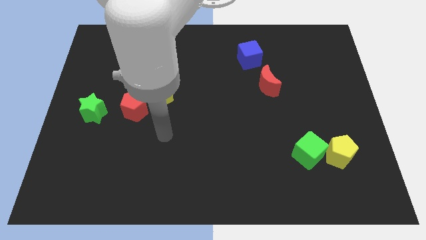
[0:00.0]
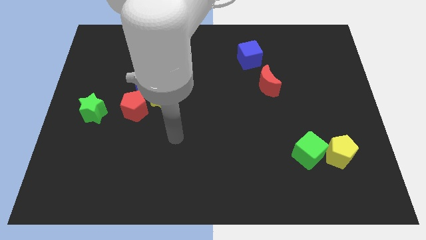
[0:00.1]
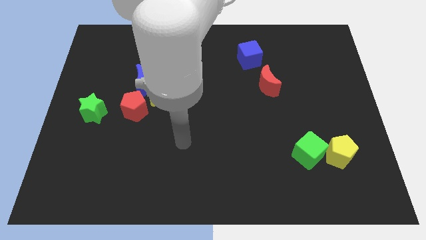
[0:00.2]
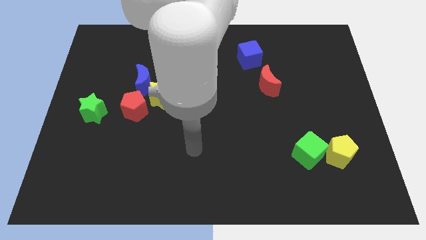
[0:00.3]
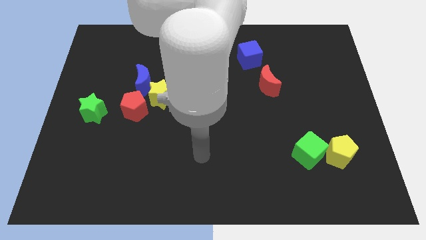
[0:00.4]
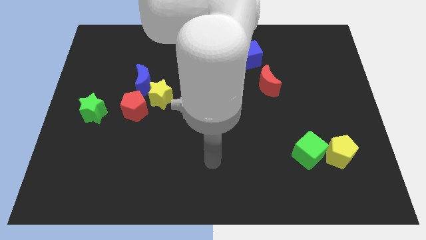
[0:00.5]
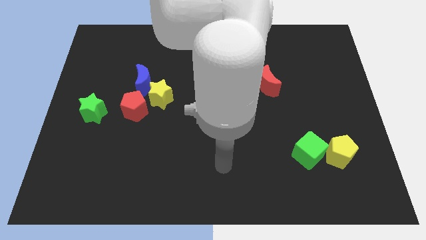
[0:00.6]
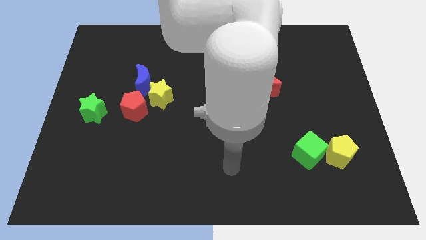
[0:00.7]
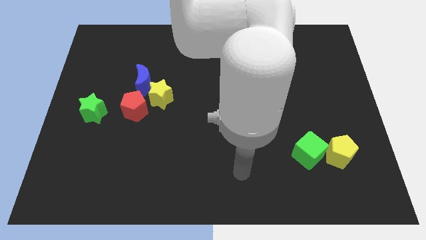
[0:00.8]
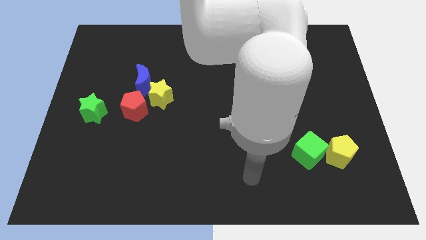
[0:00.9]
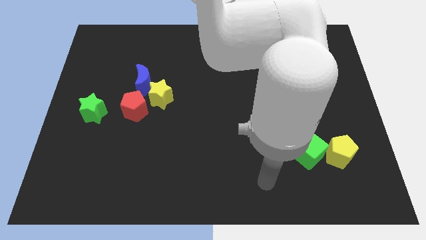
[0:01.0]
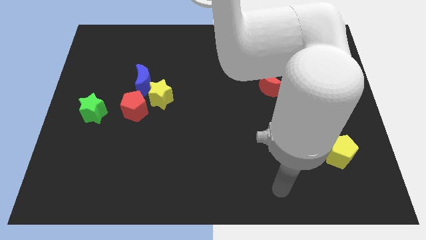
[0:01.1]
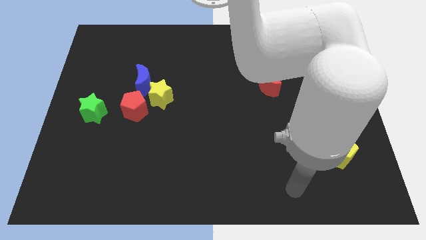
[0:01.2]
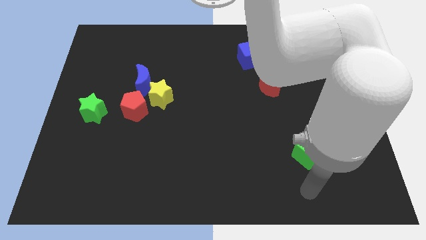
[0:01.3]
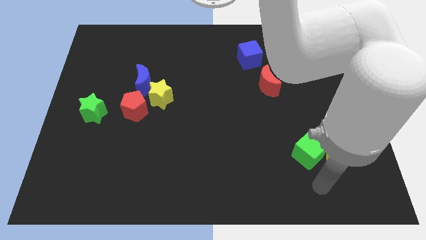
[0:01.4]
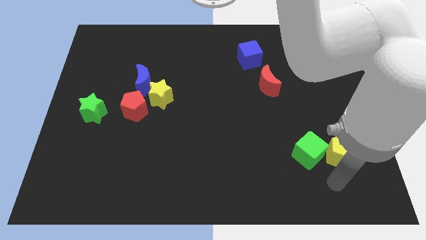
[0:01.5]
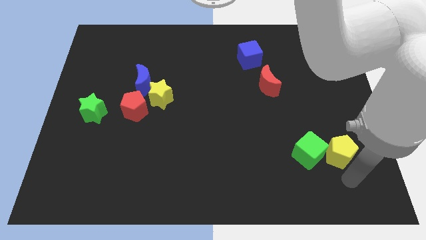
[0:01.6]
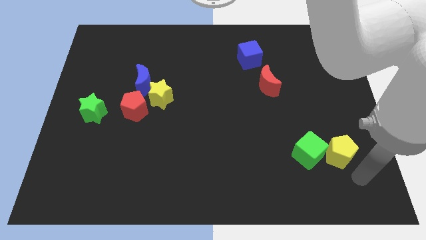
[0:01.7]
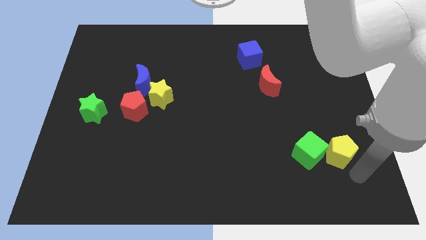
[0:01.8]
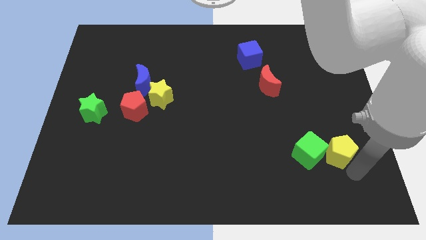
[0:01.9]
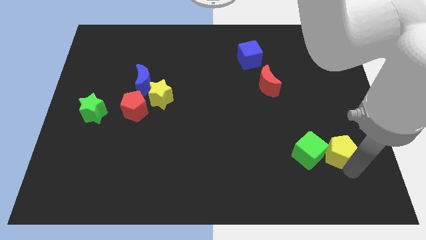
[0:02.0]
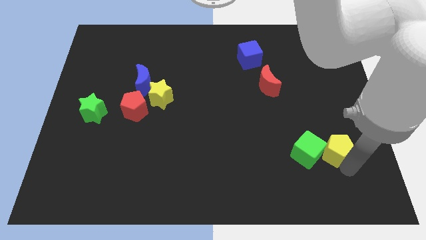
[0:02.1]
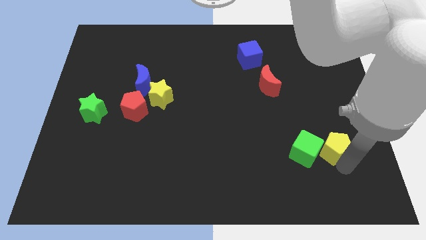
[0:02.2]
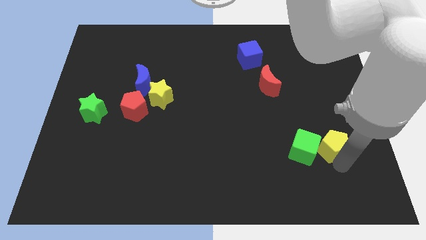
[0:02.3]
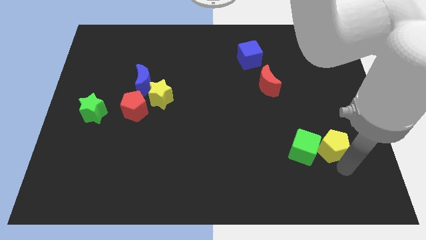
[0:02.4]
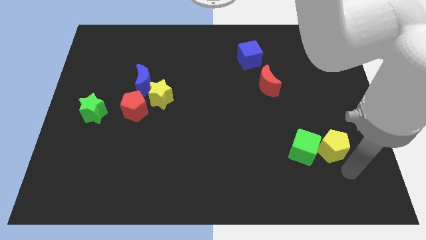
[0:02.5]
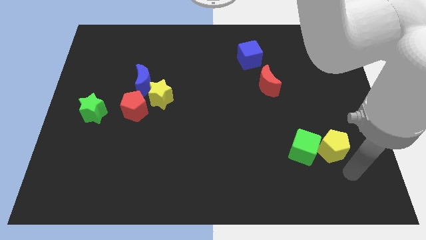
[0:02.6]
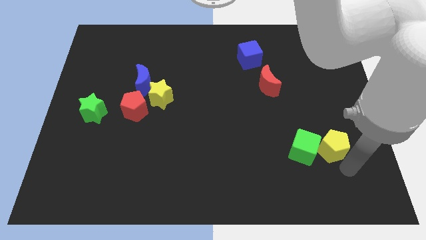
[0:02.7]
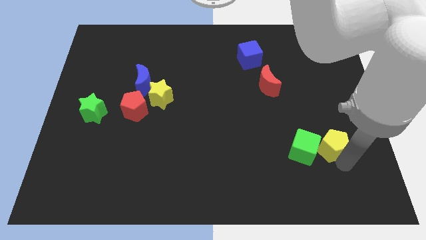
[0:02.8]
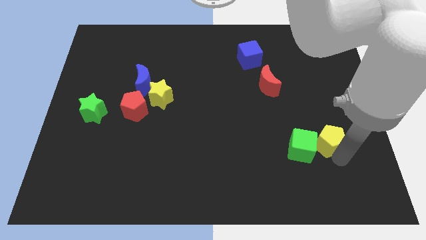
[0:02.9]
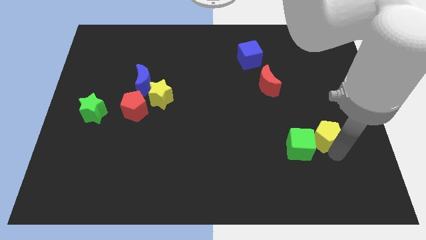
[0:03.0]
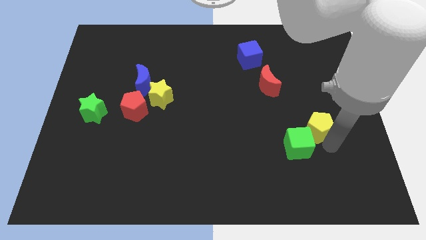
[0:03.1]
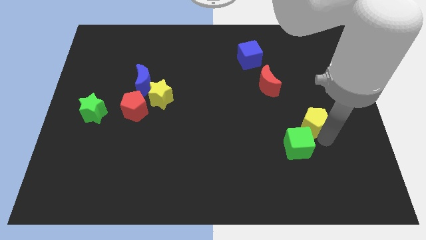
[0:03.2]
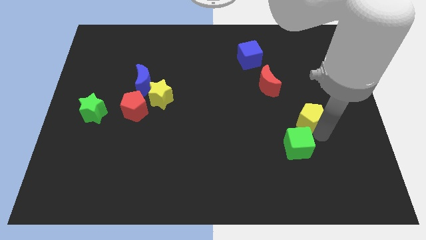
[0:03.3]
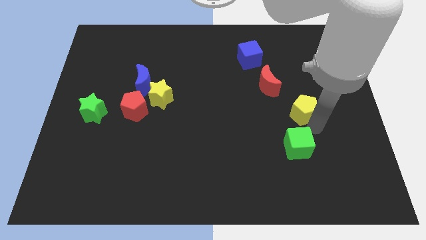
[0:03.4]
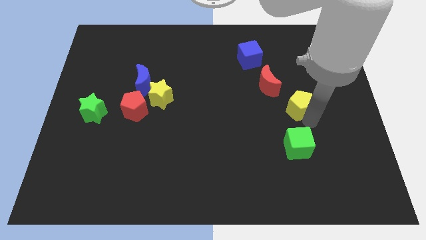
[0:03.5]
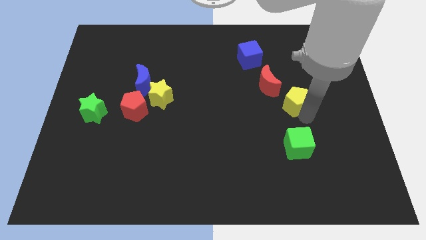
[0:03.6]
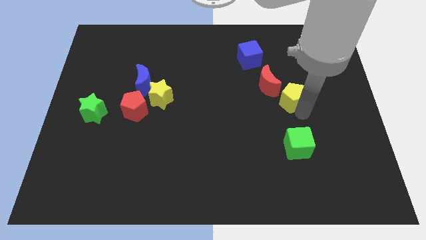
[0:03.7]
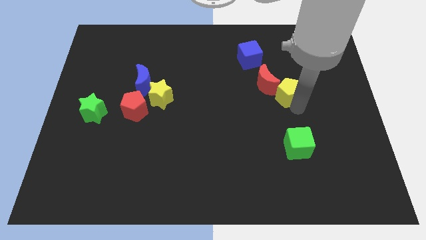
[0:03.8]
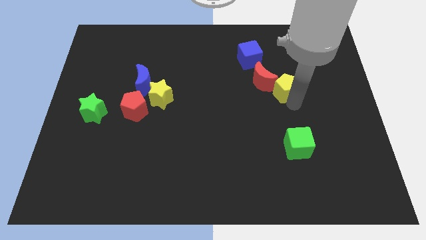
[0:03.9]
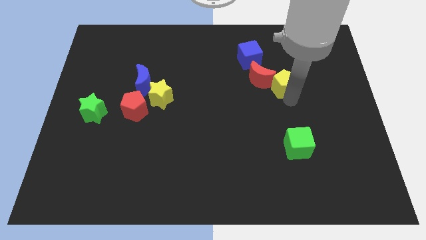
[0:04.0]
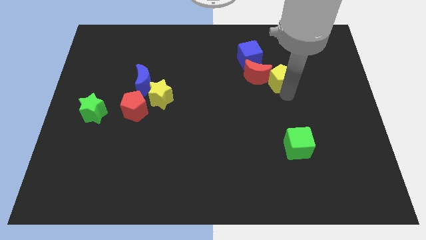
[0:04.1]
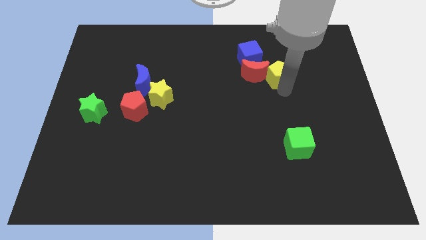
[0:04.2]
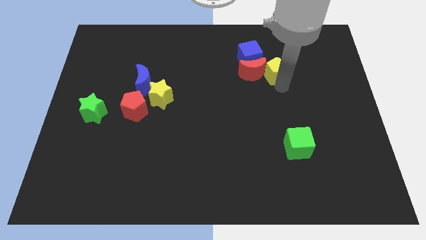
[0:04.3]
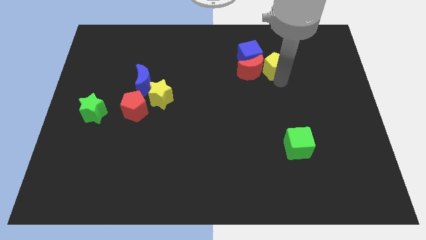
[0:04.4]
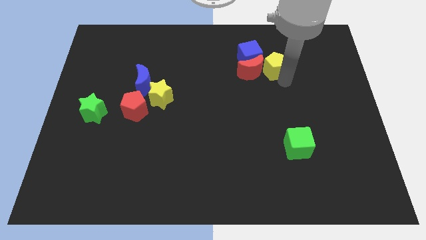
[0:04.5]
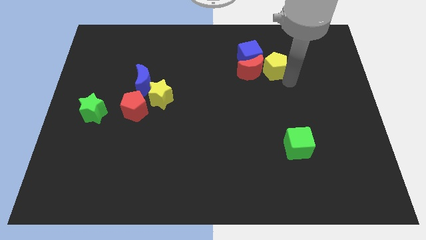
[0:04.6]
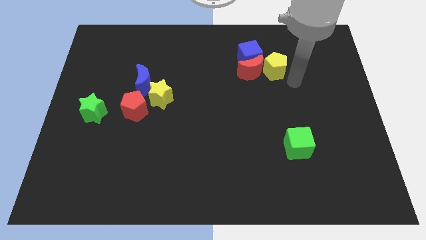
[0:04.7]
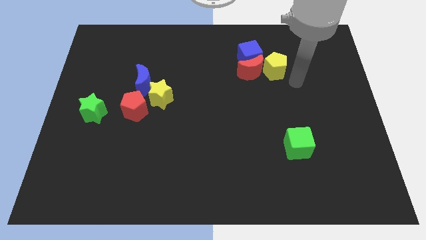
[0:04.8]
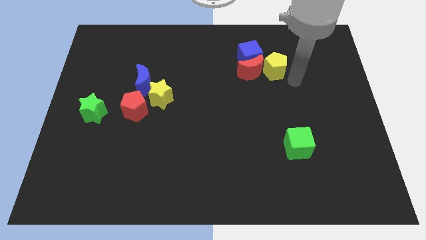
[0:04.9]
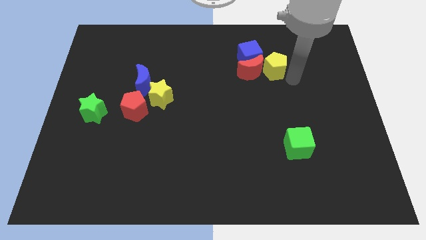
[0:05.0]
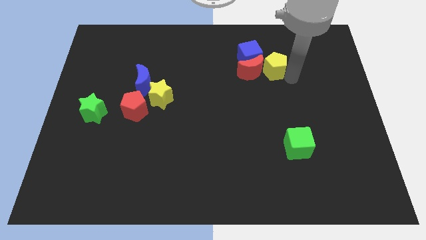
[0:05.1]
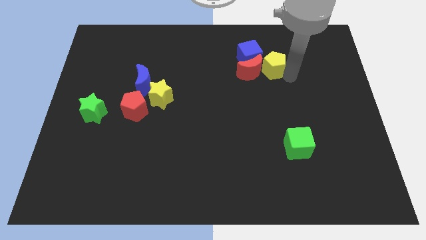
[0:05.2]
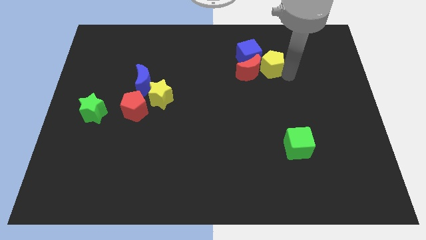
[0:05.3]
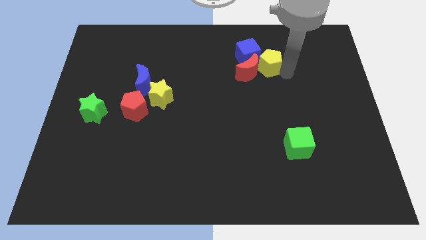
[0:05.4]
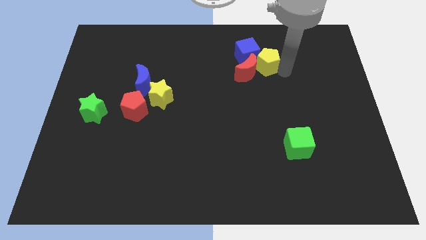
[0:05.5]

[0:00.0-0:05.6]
push the yellow pentagon towards the blue cube

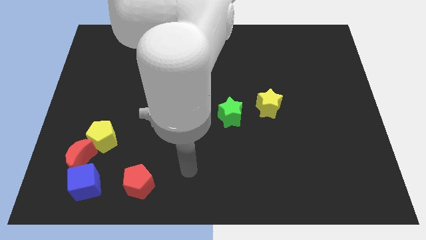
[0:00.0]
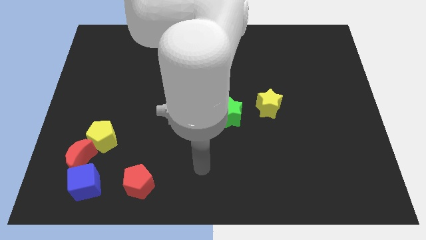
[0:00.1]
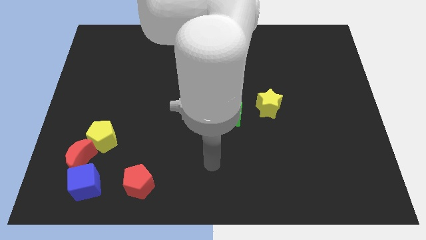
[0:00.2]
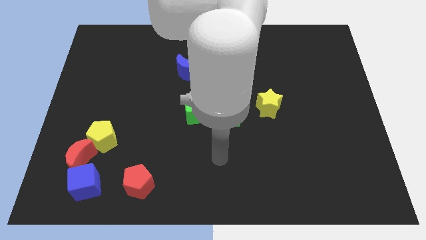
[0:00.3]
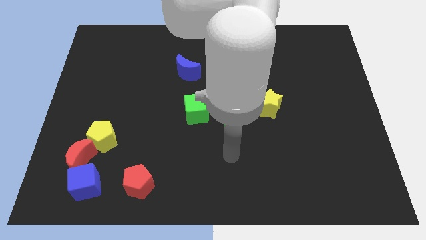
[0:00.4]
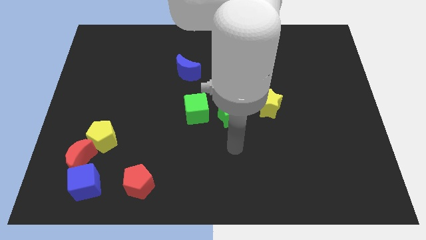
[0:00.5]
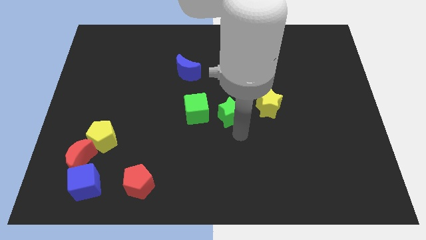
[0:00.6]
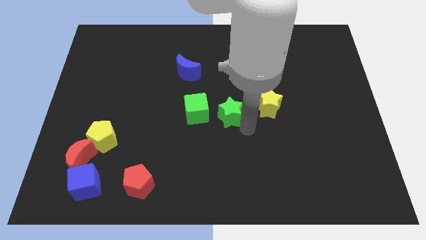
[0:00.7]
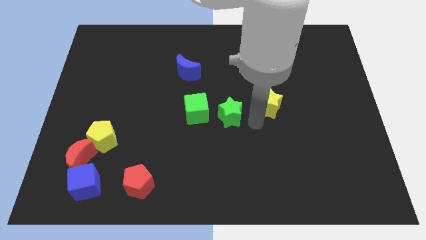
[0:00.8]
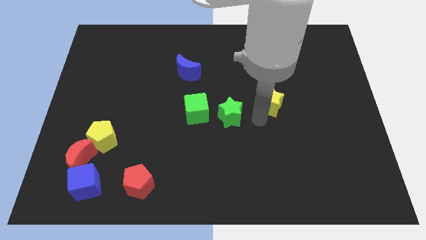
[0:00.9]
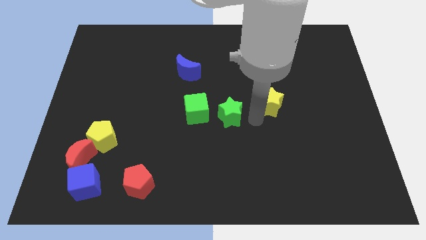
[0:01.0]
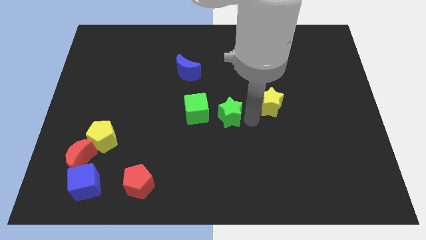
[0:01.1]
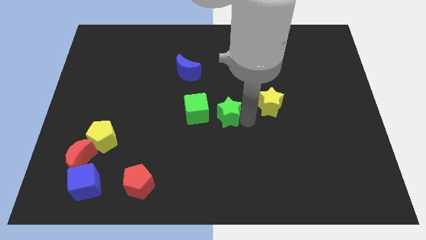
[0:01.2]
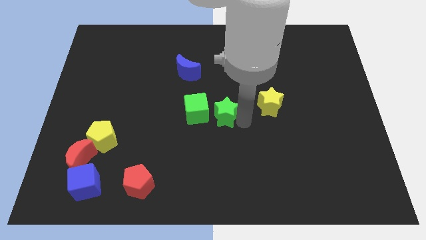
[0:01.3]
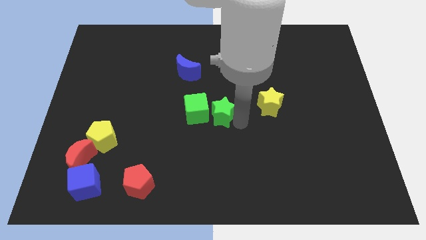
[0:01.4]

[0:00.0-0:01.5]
move the green star next to the green cube
